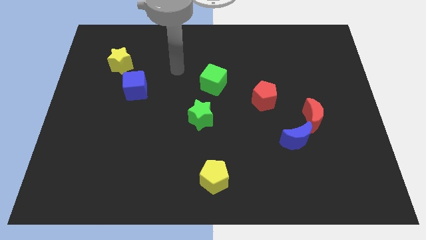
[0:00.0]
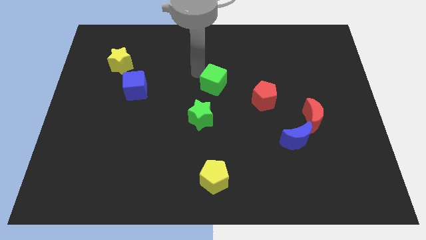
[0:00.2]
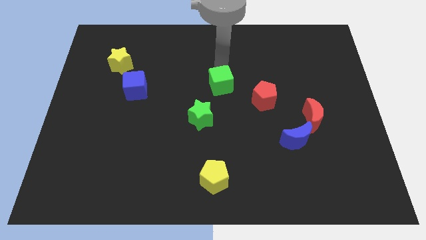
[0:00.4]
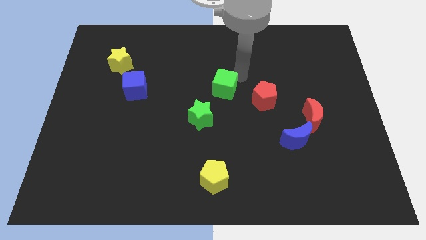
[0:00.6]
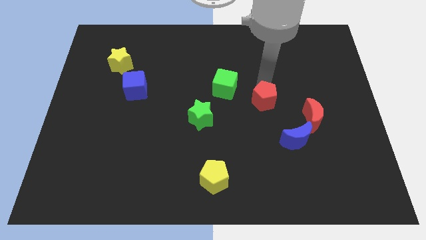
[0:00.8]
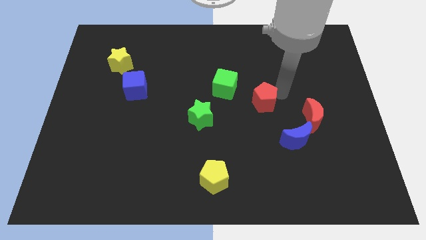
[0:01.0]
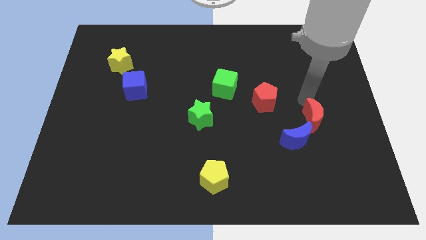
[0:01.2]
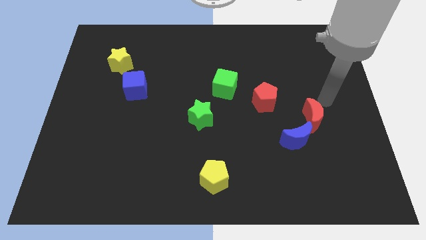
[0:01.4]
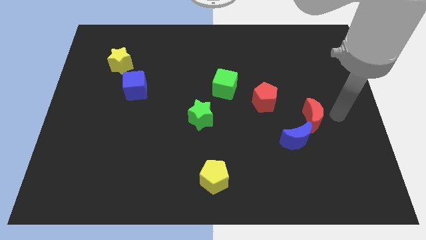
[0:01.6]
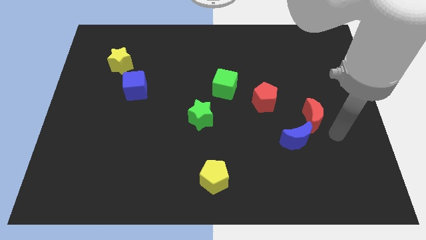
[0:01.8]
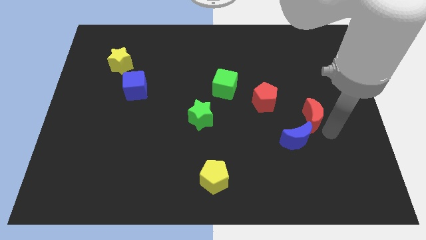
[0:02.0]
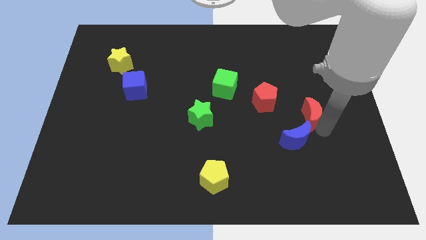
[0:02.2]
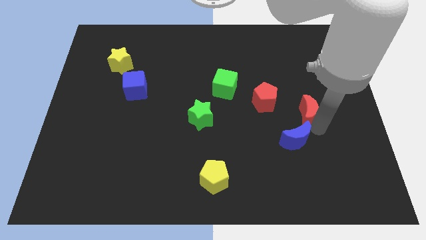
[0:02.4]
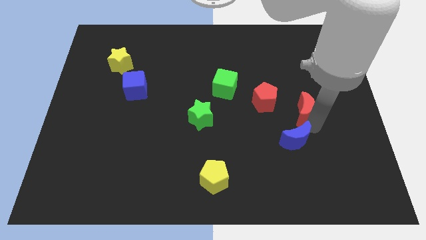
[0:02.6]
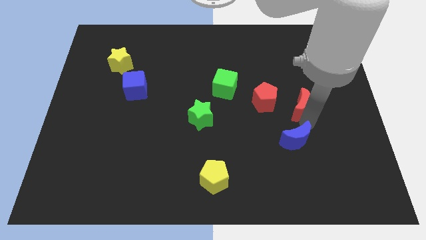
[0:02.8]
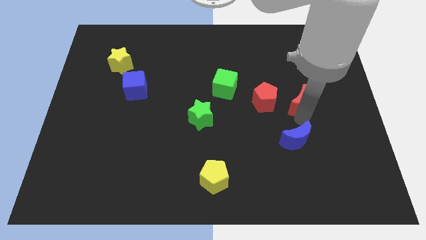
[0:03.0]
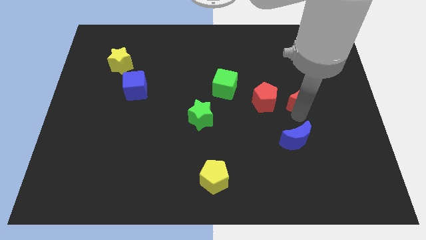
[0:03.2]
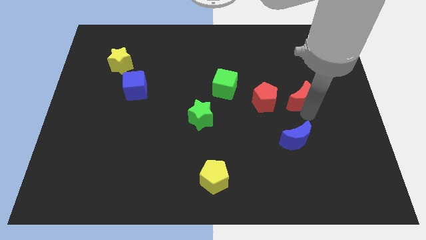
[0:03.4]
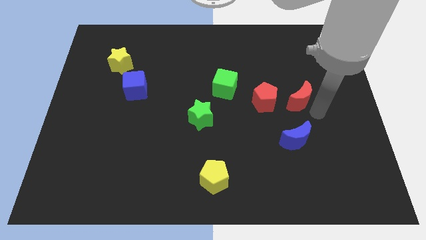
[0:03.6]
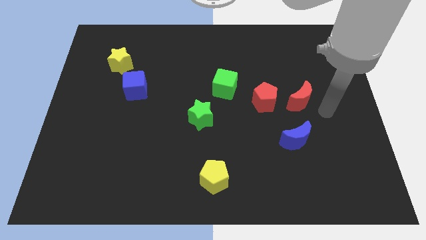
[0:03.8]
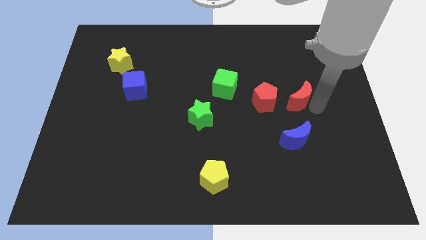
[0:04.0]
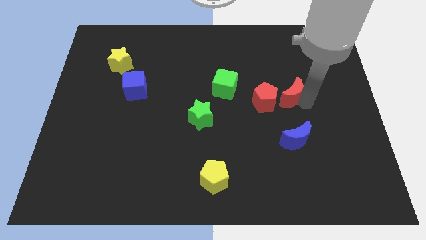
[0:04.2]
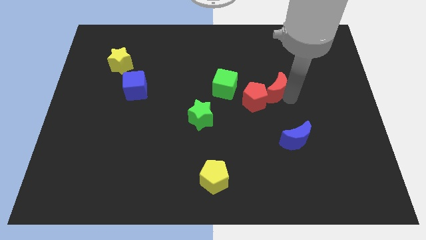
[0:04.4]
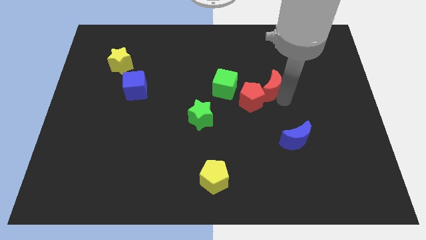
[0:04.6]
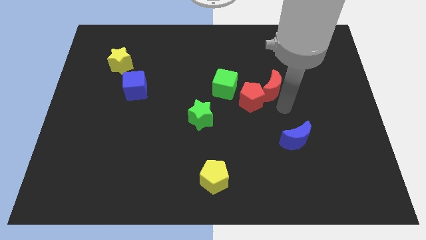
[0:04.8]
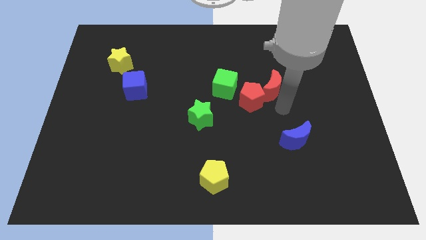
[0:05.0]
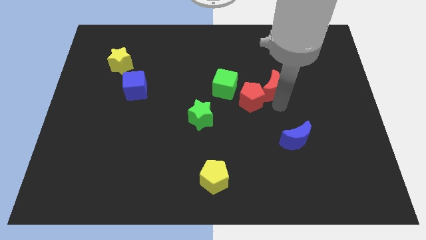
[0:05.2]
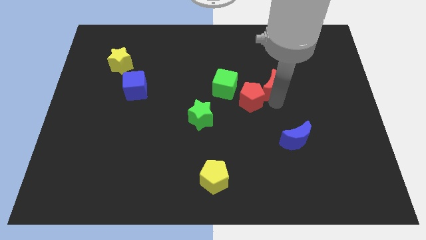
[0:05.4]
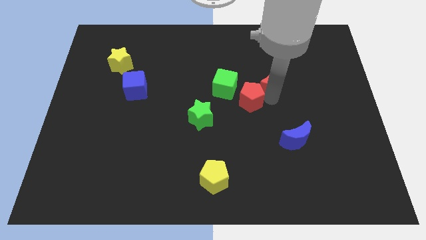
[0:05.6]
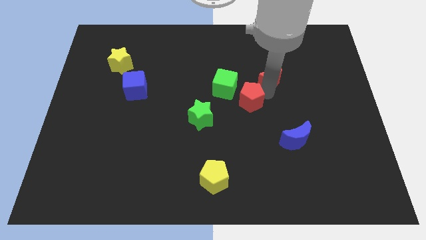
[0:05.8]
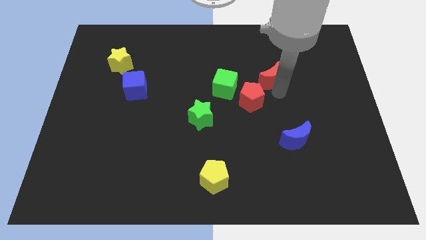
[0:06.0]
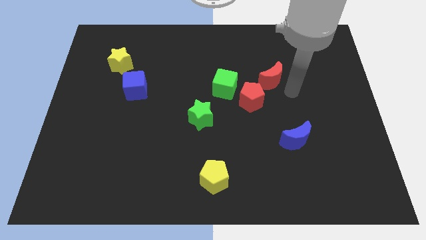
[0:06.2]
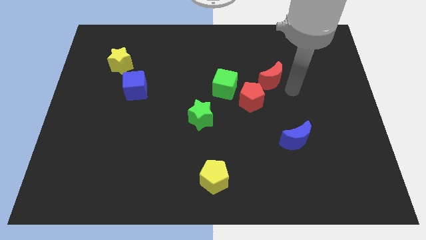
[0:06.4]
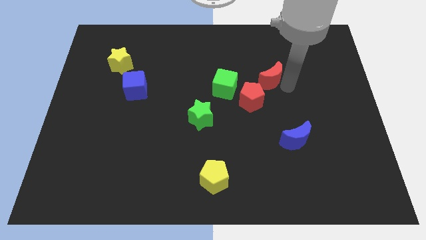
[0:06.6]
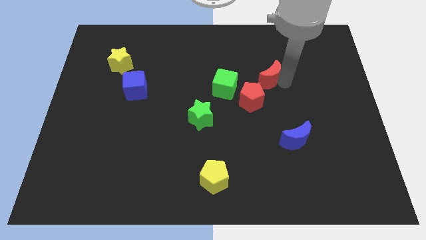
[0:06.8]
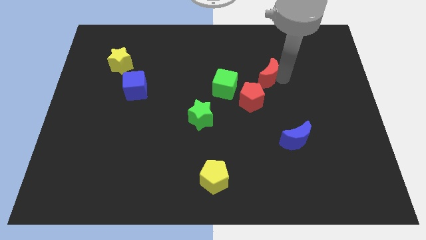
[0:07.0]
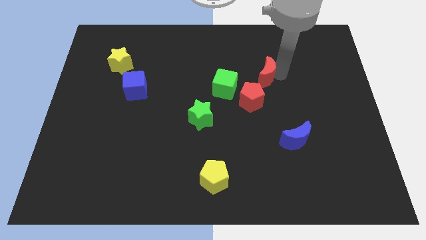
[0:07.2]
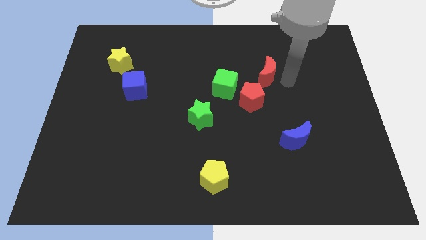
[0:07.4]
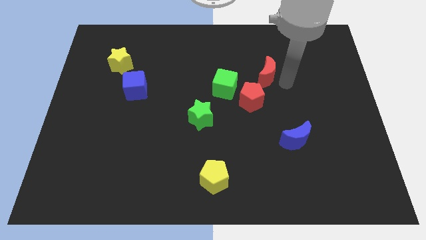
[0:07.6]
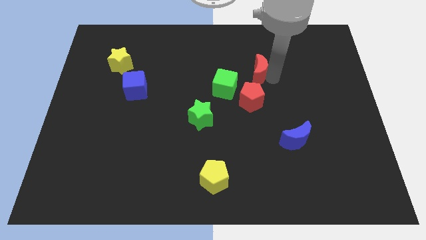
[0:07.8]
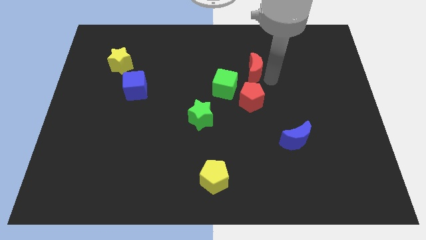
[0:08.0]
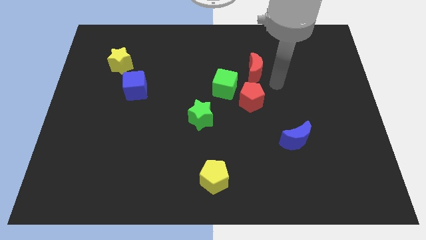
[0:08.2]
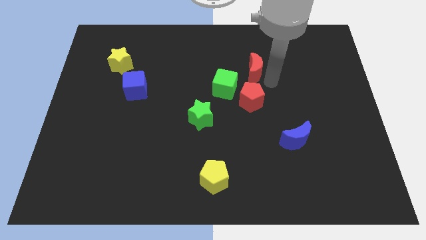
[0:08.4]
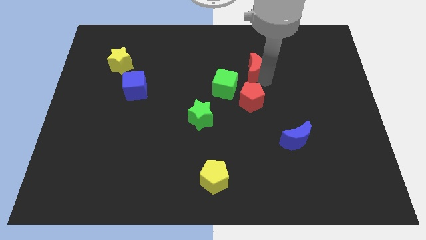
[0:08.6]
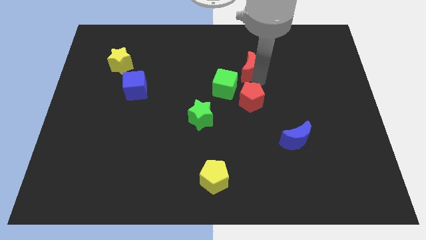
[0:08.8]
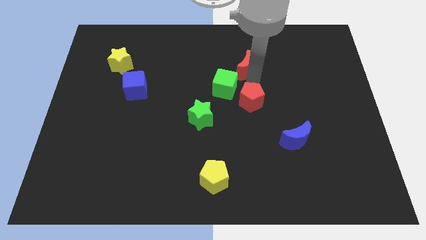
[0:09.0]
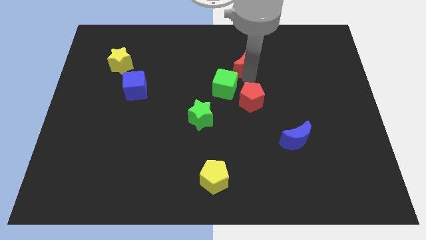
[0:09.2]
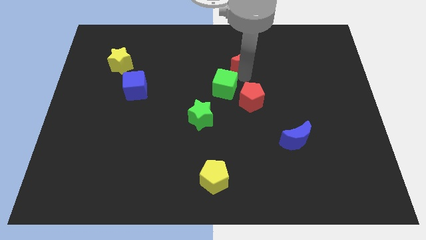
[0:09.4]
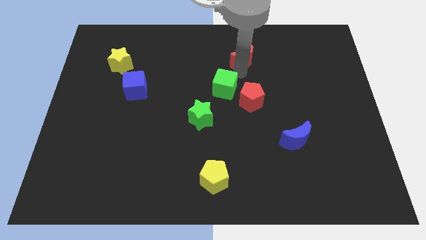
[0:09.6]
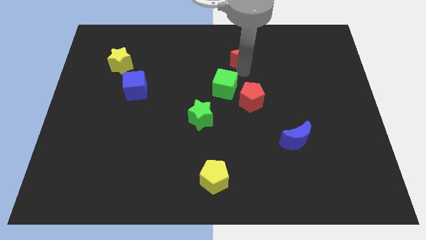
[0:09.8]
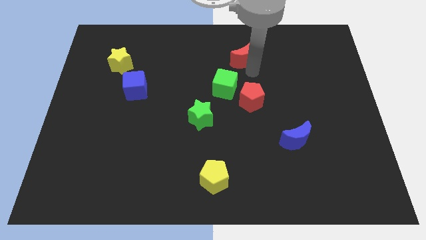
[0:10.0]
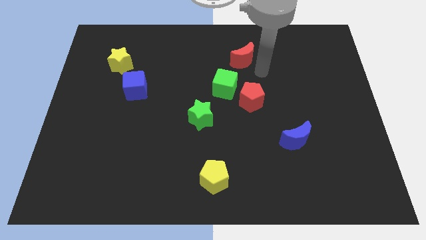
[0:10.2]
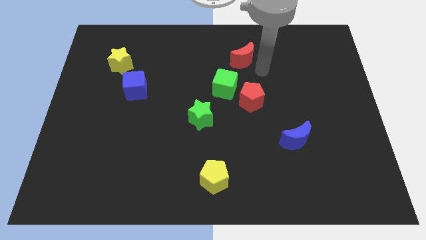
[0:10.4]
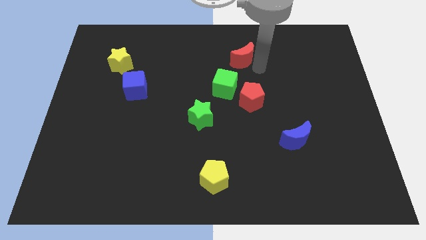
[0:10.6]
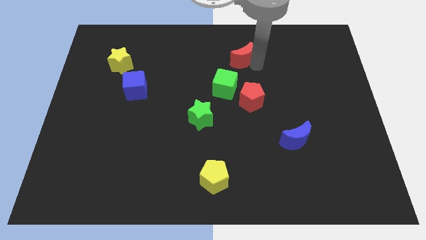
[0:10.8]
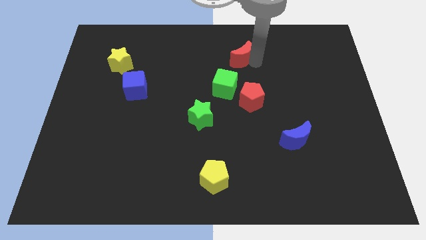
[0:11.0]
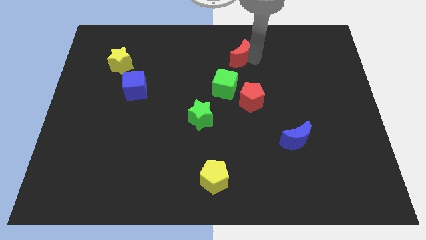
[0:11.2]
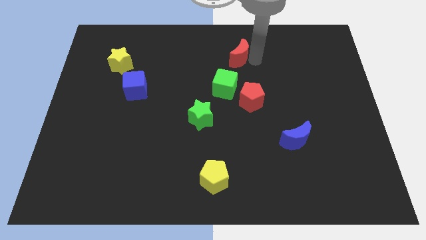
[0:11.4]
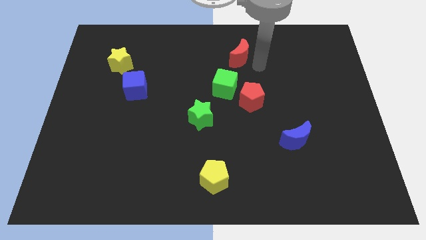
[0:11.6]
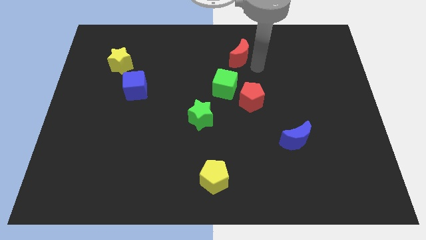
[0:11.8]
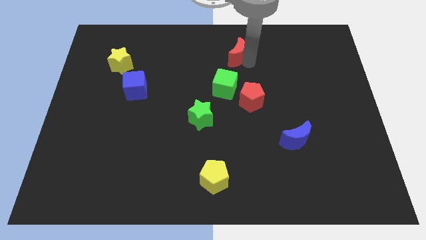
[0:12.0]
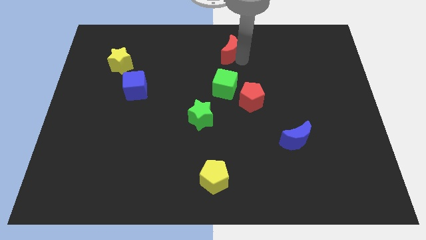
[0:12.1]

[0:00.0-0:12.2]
move the red moon to the towards your base
